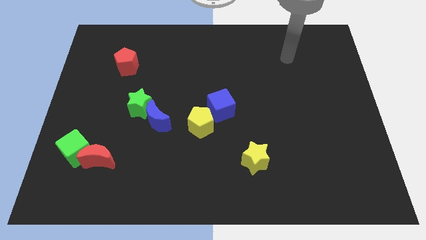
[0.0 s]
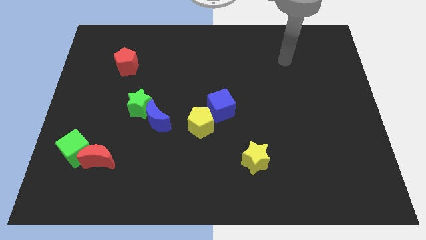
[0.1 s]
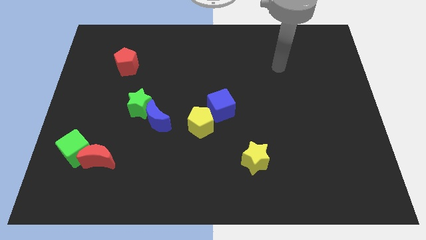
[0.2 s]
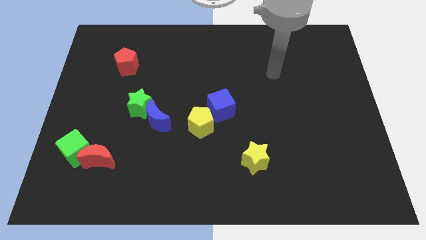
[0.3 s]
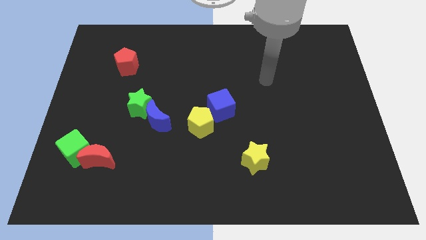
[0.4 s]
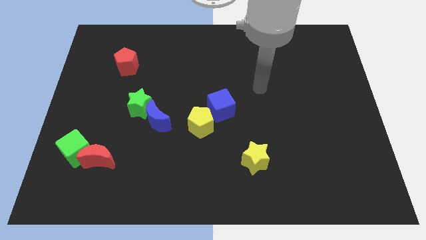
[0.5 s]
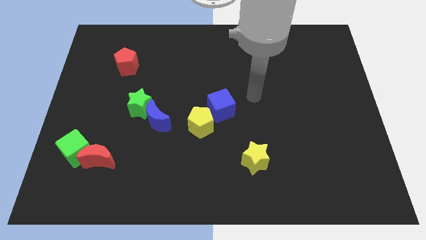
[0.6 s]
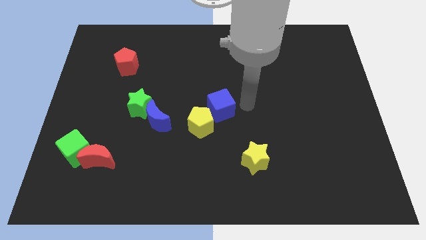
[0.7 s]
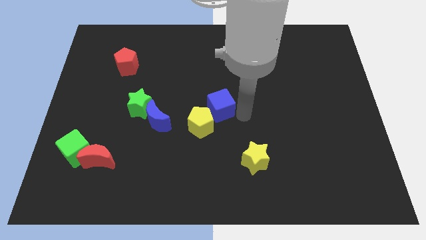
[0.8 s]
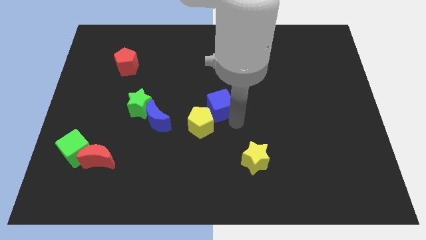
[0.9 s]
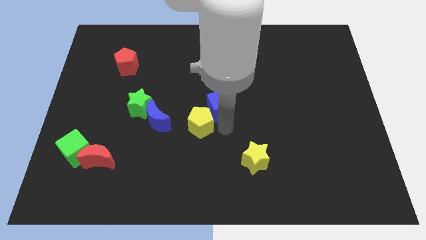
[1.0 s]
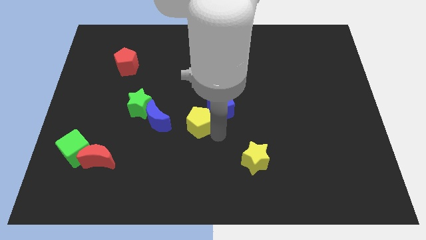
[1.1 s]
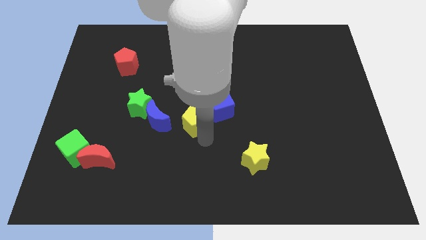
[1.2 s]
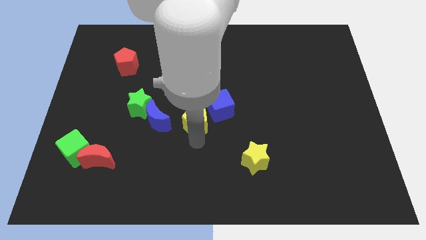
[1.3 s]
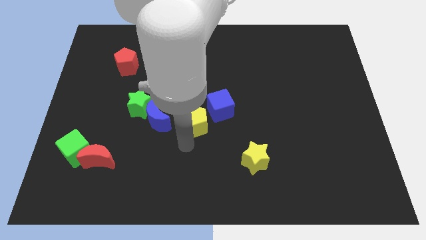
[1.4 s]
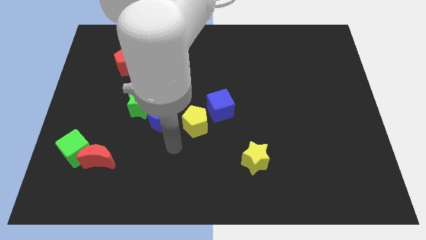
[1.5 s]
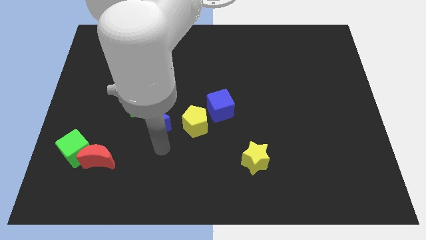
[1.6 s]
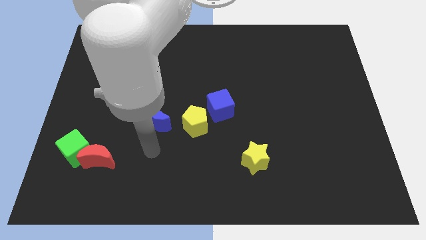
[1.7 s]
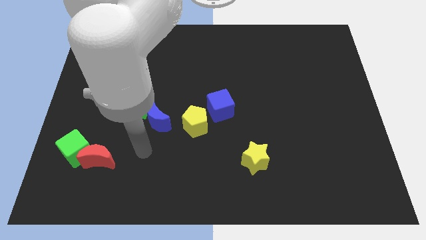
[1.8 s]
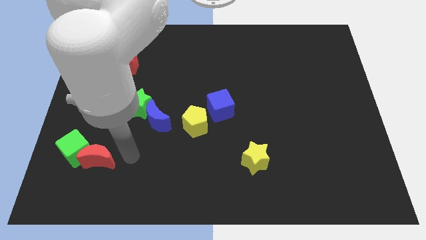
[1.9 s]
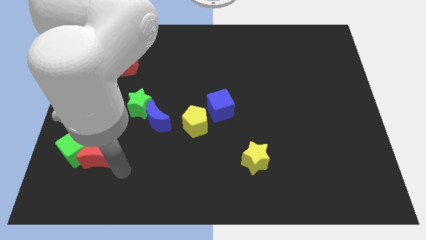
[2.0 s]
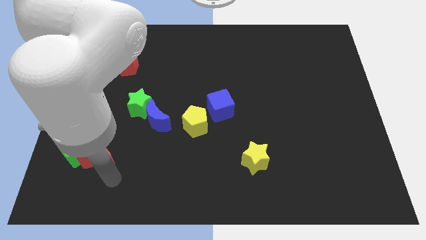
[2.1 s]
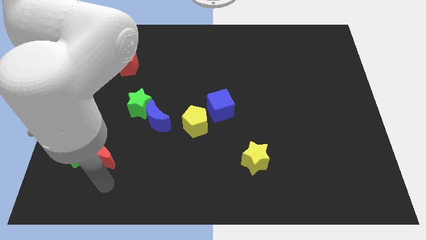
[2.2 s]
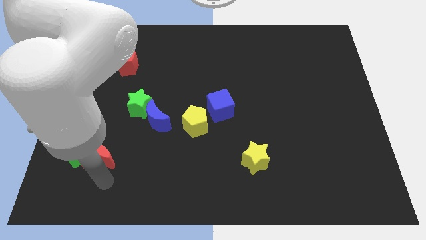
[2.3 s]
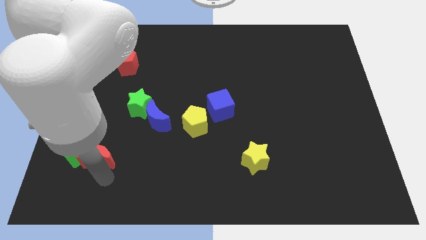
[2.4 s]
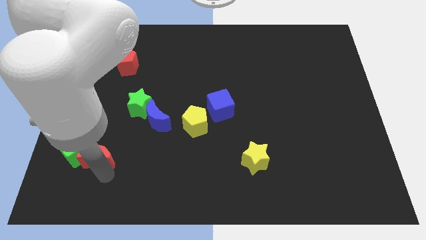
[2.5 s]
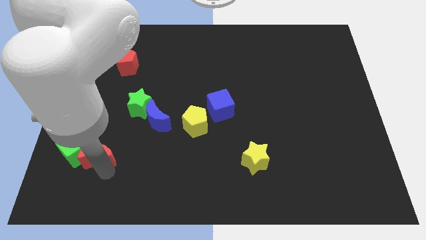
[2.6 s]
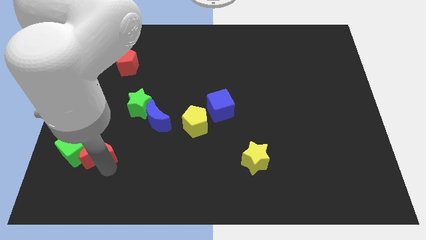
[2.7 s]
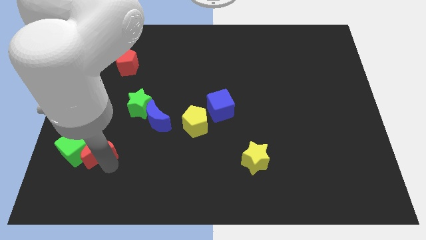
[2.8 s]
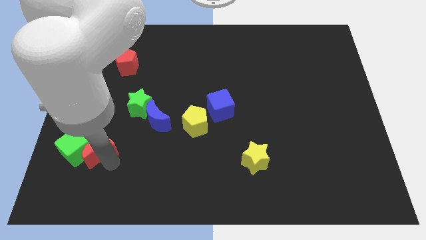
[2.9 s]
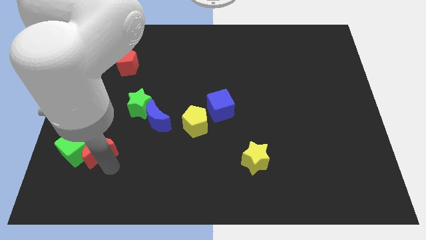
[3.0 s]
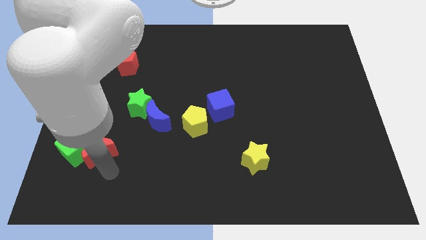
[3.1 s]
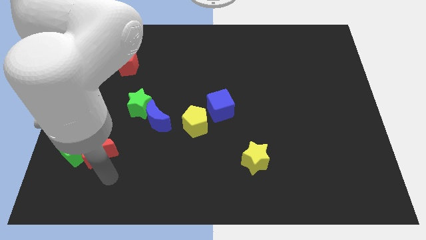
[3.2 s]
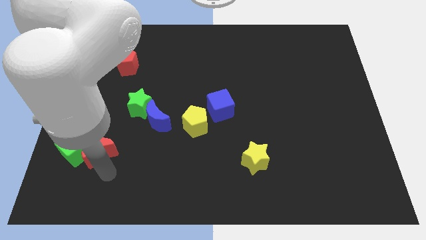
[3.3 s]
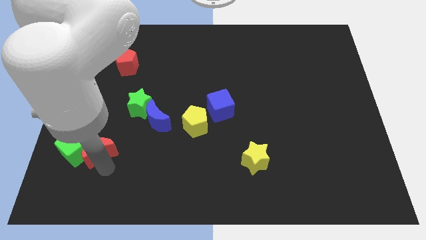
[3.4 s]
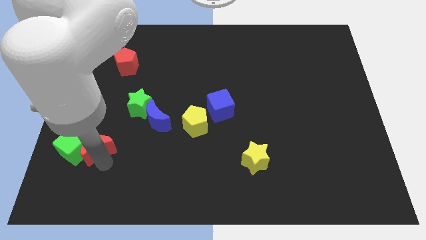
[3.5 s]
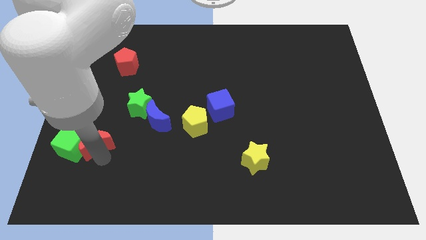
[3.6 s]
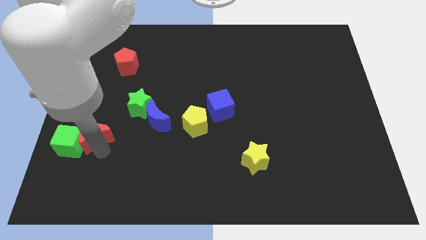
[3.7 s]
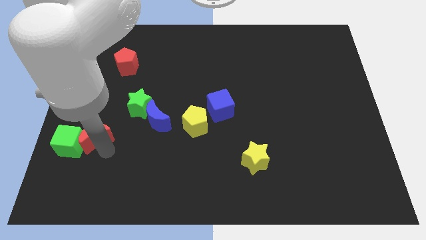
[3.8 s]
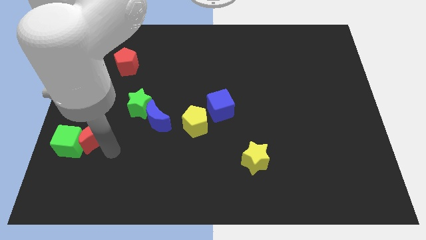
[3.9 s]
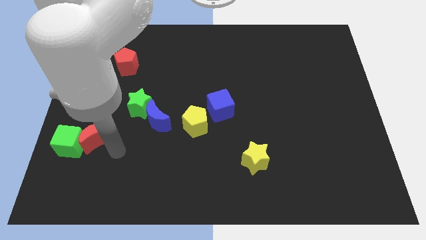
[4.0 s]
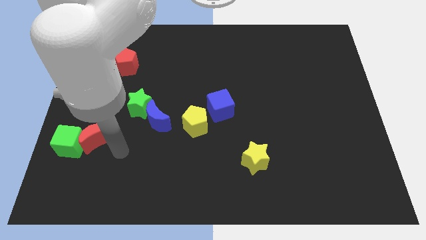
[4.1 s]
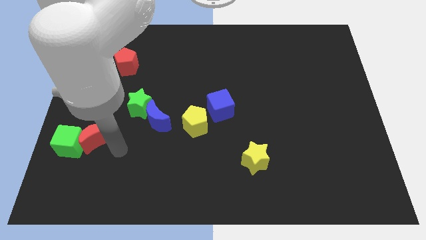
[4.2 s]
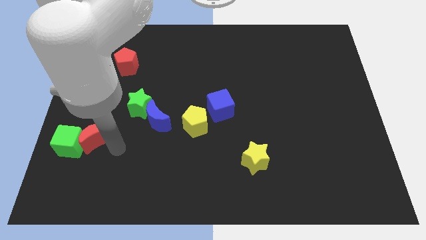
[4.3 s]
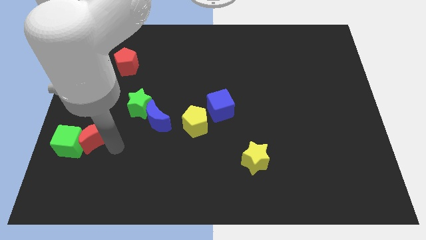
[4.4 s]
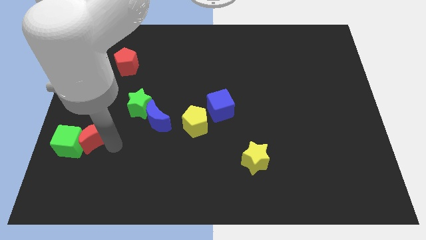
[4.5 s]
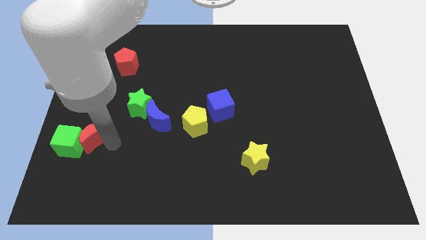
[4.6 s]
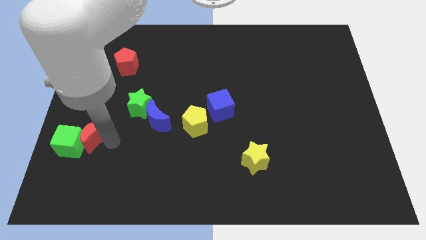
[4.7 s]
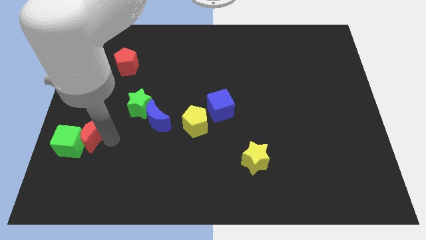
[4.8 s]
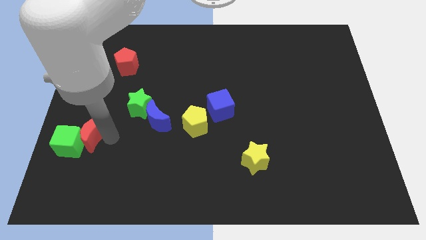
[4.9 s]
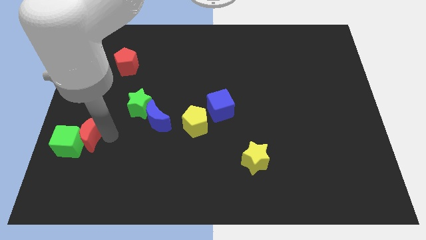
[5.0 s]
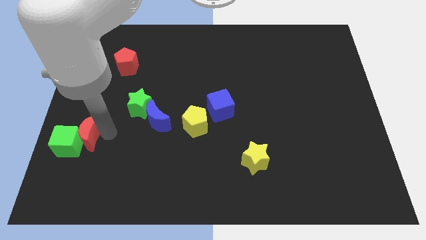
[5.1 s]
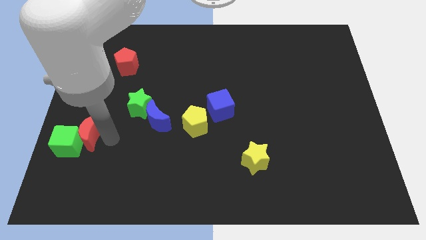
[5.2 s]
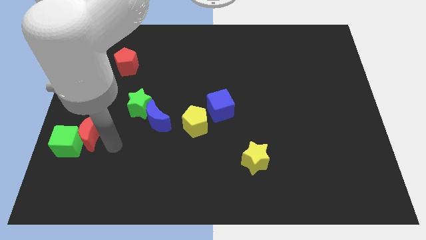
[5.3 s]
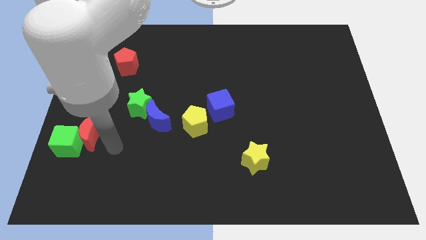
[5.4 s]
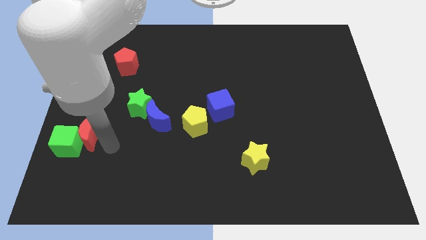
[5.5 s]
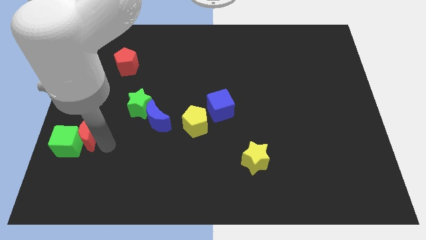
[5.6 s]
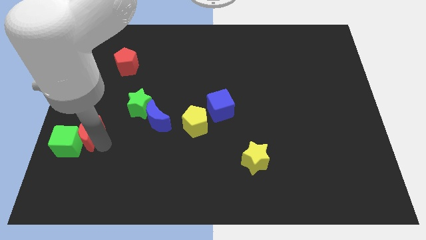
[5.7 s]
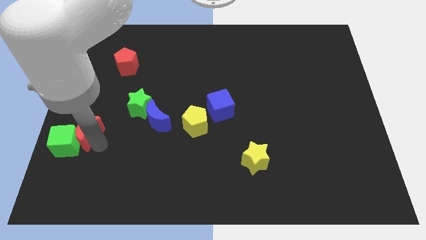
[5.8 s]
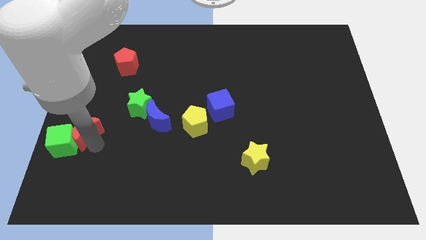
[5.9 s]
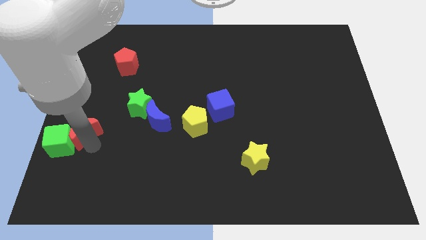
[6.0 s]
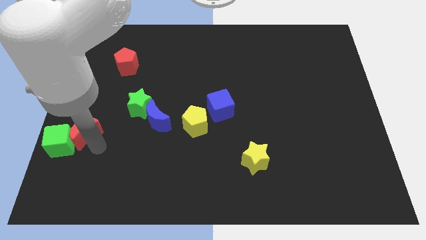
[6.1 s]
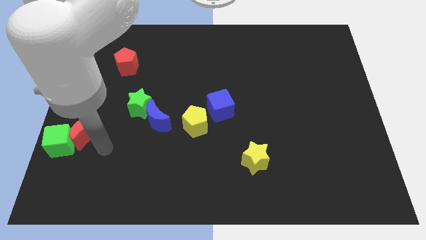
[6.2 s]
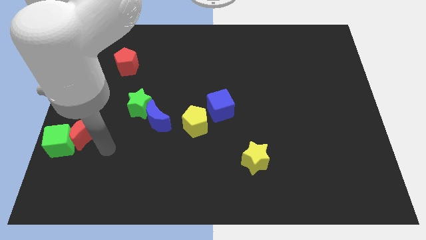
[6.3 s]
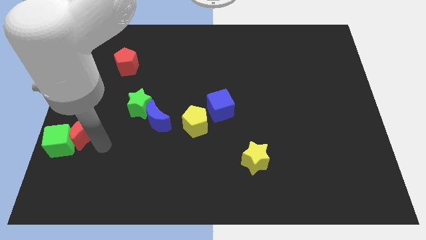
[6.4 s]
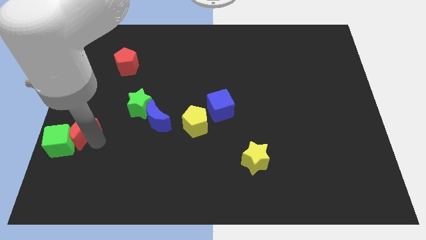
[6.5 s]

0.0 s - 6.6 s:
push the red moon to the left side

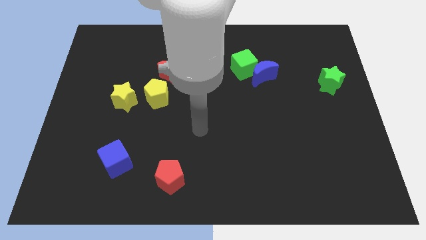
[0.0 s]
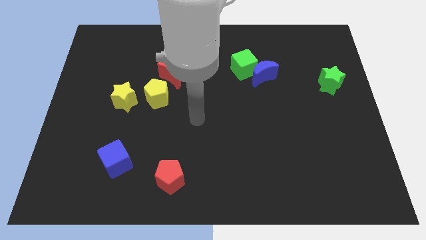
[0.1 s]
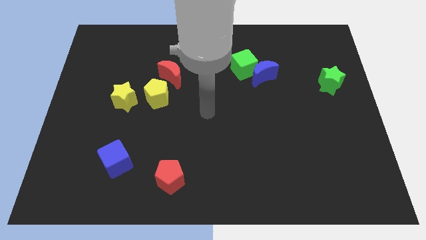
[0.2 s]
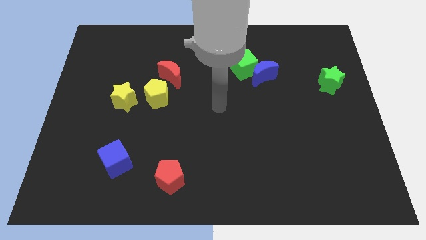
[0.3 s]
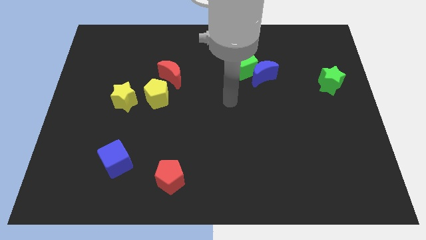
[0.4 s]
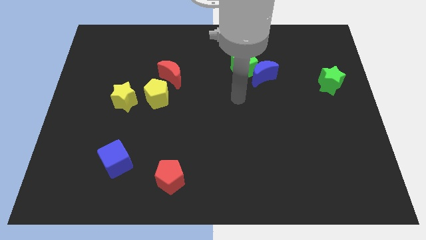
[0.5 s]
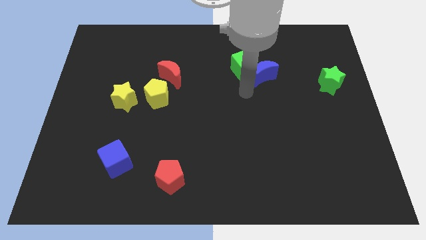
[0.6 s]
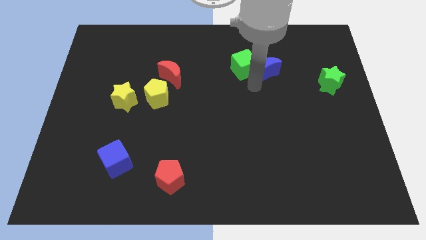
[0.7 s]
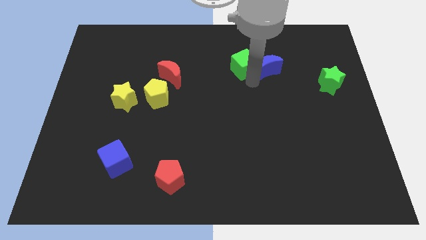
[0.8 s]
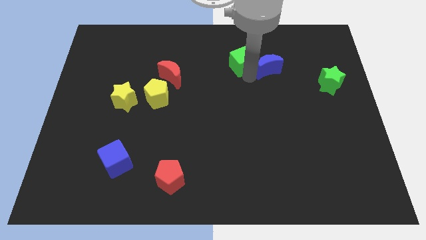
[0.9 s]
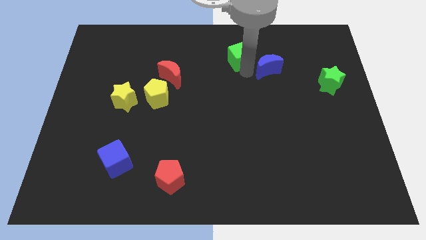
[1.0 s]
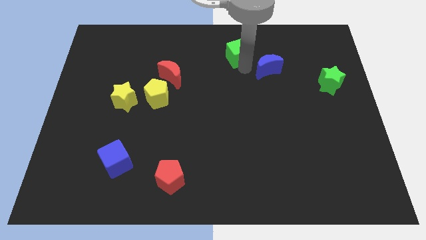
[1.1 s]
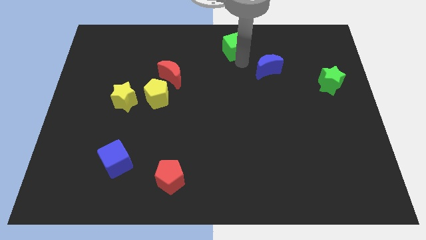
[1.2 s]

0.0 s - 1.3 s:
move the green cube to the top side
